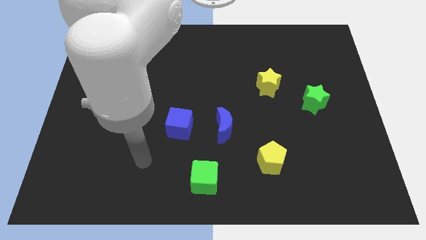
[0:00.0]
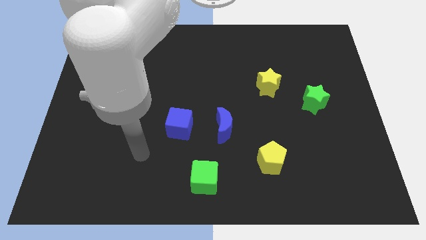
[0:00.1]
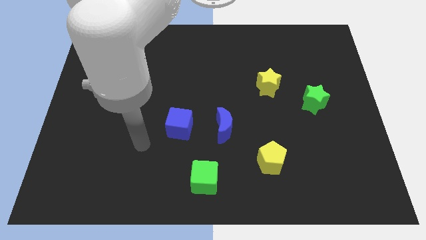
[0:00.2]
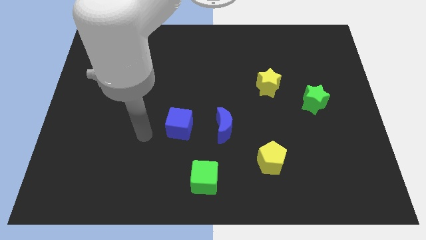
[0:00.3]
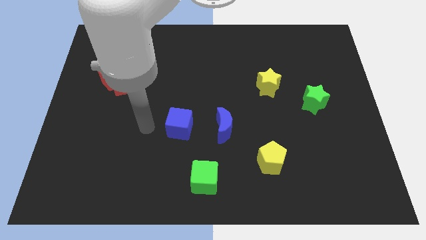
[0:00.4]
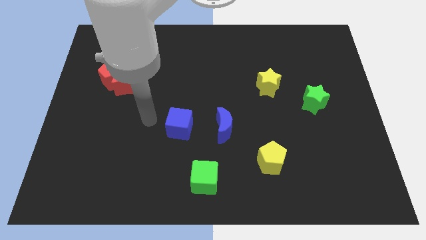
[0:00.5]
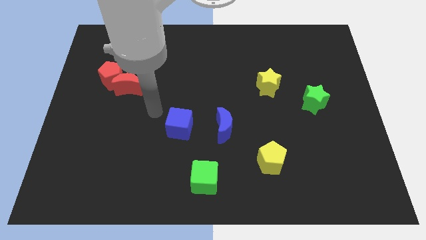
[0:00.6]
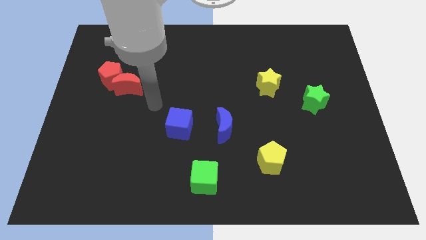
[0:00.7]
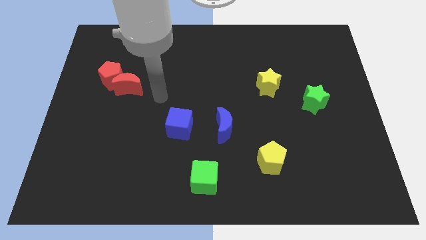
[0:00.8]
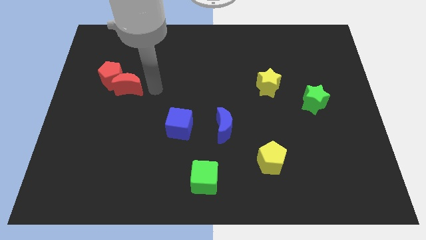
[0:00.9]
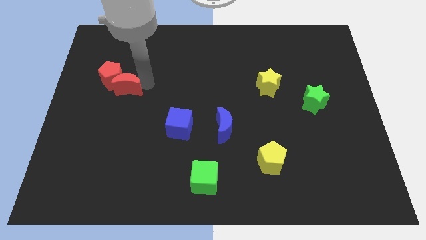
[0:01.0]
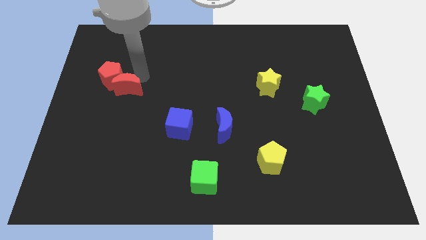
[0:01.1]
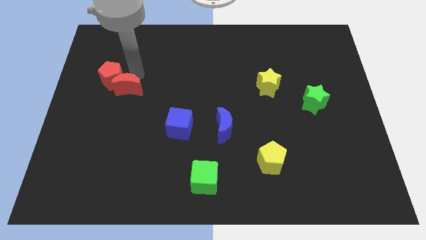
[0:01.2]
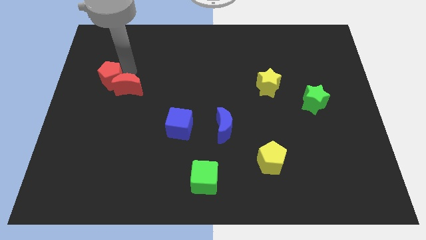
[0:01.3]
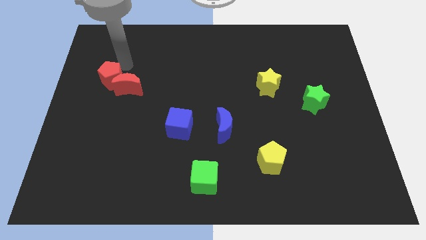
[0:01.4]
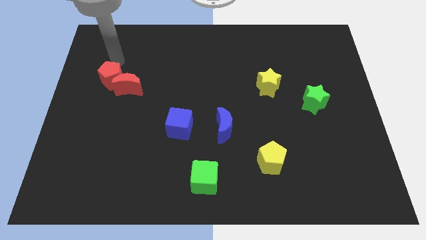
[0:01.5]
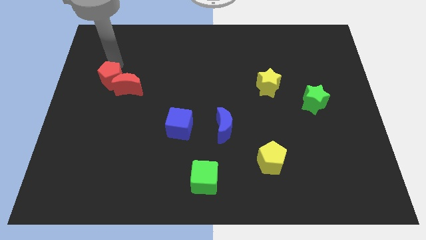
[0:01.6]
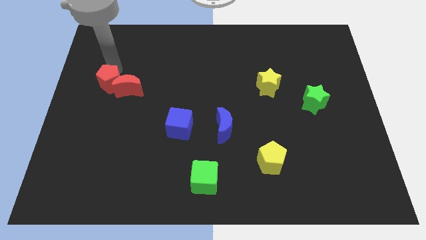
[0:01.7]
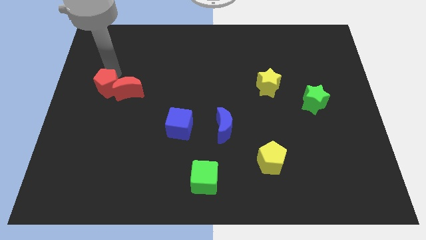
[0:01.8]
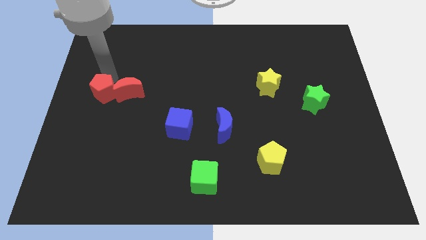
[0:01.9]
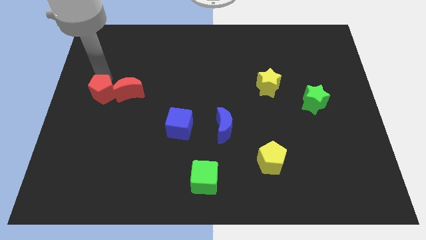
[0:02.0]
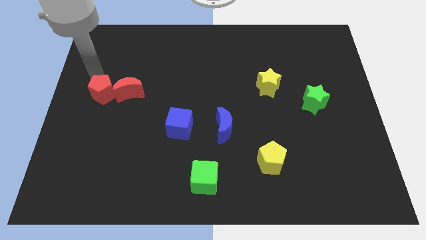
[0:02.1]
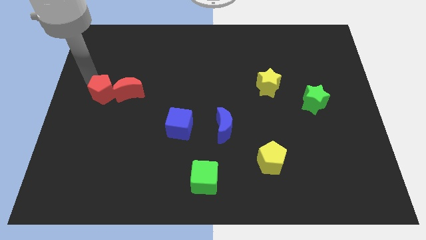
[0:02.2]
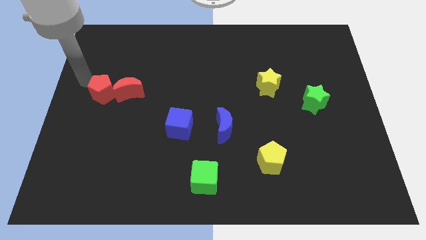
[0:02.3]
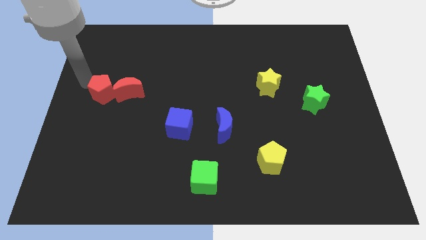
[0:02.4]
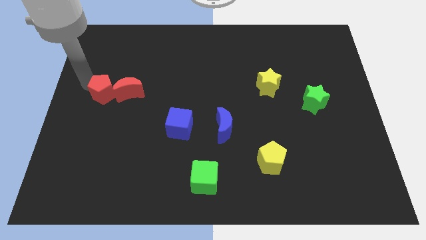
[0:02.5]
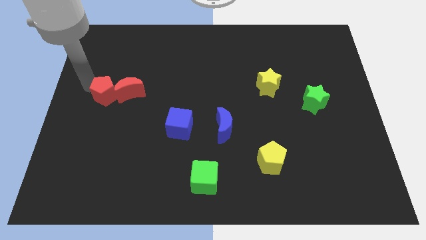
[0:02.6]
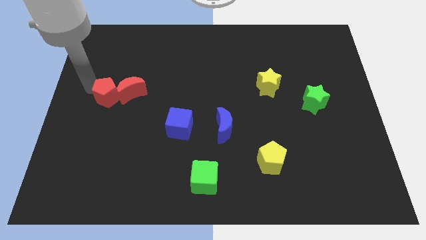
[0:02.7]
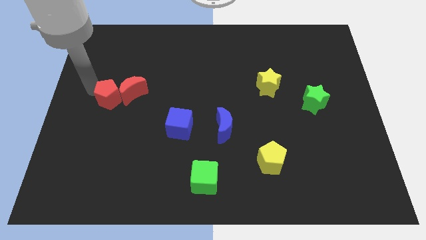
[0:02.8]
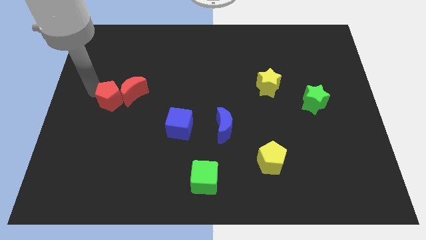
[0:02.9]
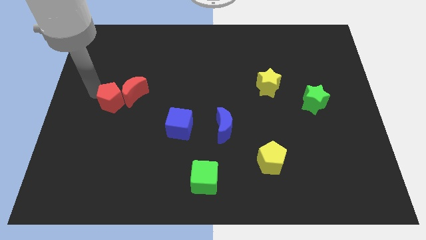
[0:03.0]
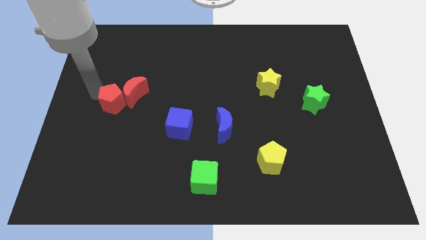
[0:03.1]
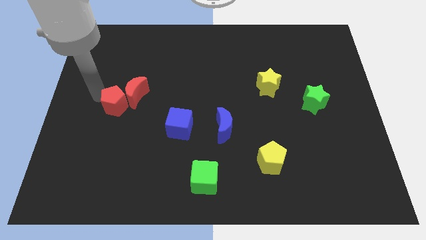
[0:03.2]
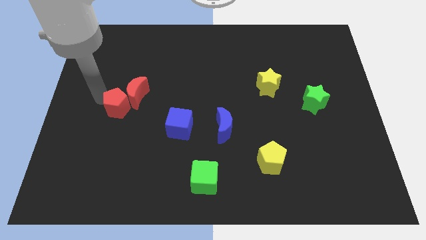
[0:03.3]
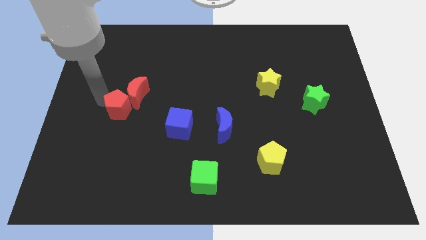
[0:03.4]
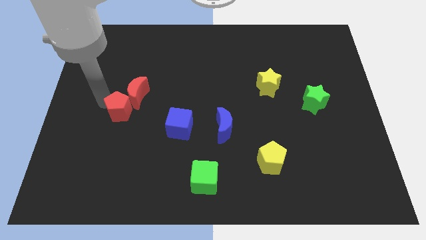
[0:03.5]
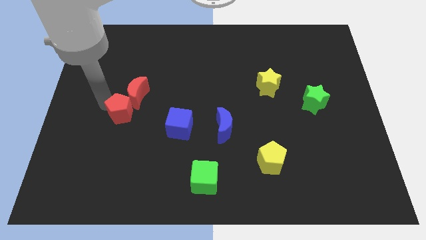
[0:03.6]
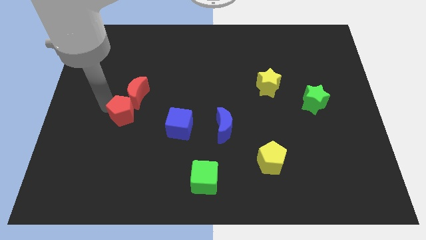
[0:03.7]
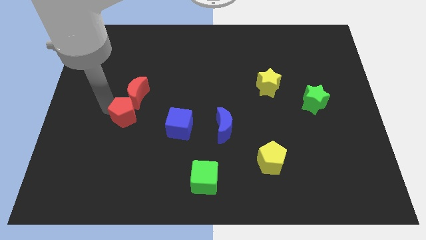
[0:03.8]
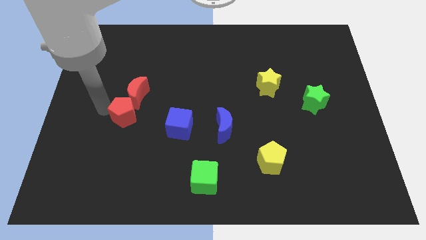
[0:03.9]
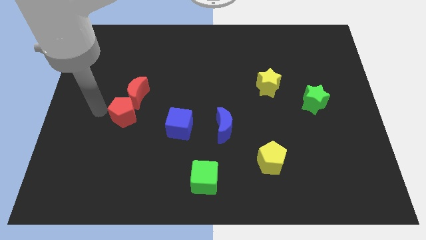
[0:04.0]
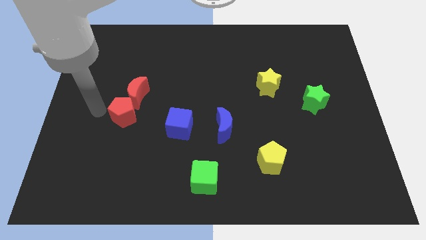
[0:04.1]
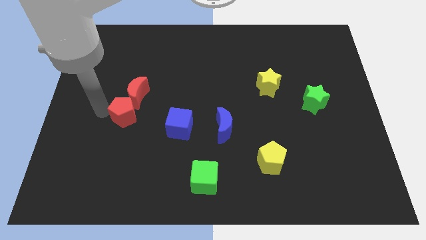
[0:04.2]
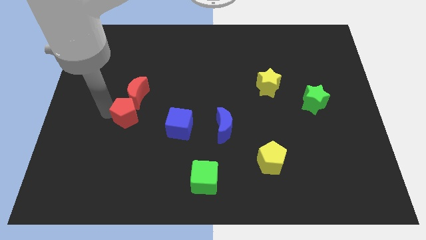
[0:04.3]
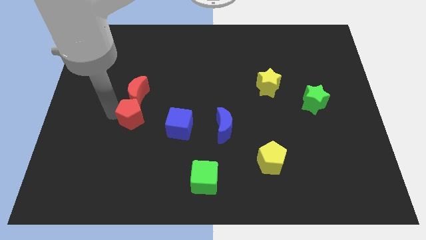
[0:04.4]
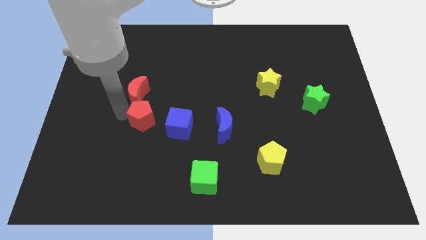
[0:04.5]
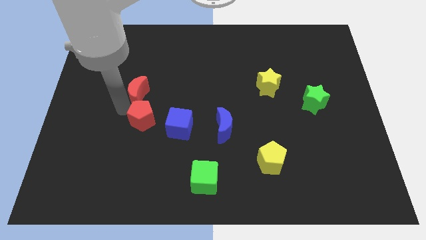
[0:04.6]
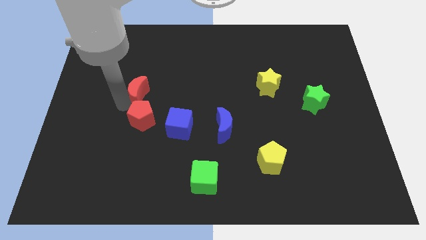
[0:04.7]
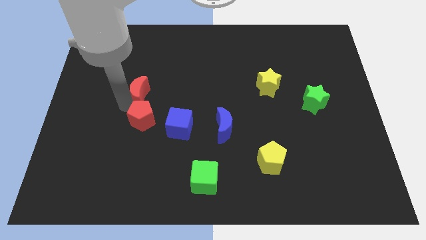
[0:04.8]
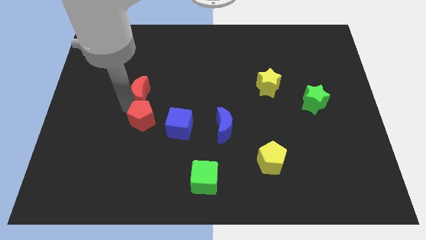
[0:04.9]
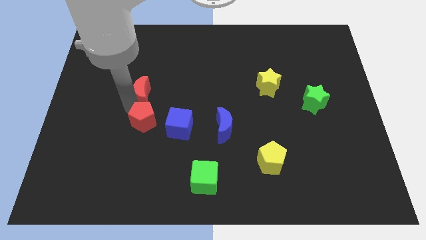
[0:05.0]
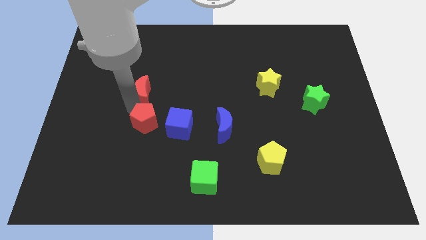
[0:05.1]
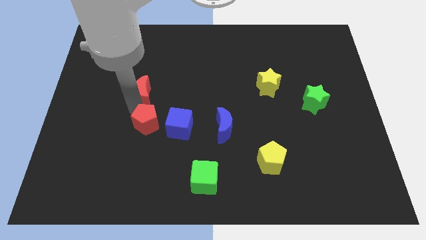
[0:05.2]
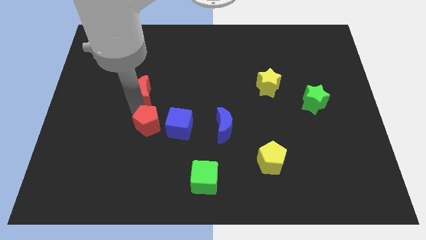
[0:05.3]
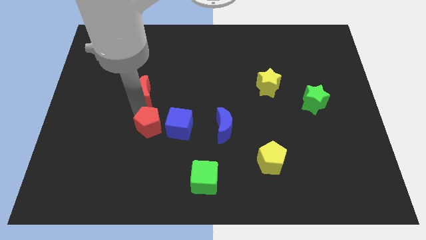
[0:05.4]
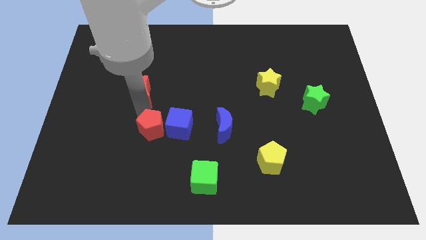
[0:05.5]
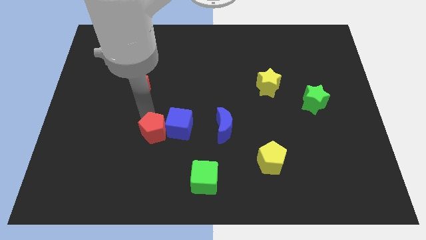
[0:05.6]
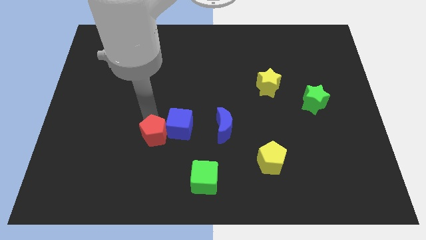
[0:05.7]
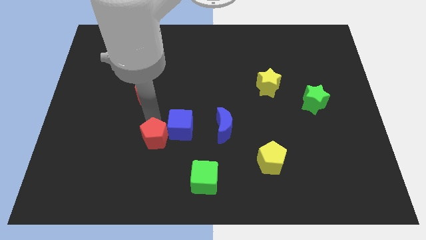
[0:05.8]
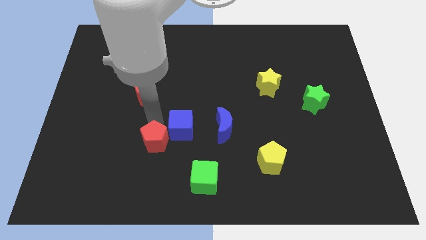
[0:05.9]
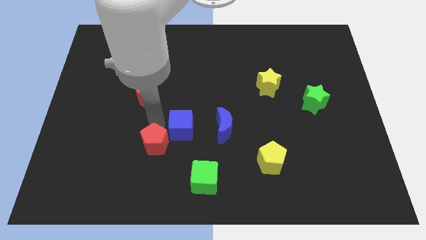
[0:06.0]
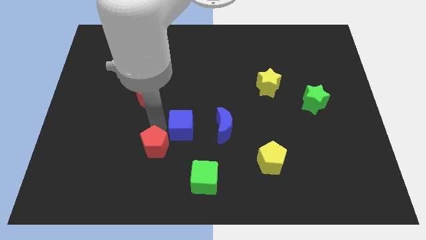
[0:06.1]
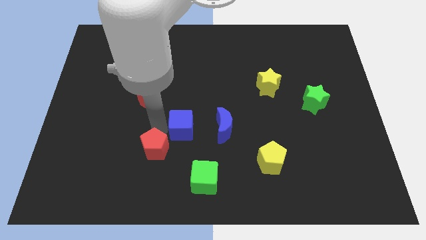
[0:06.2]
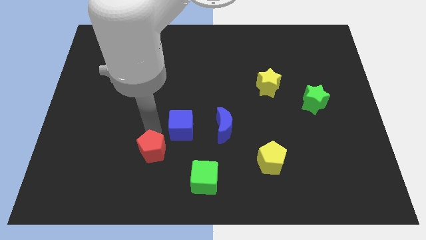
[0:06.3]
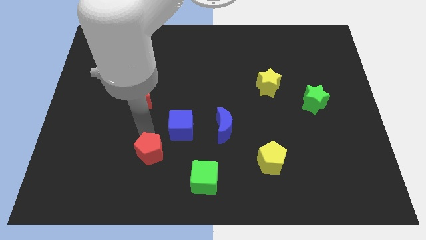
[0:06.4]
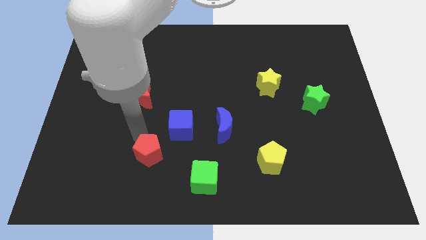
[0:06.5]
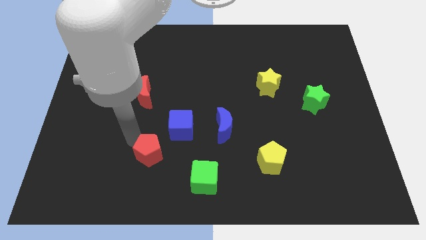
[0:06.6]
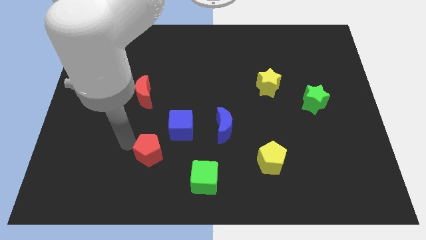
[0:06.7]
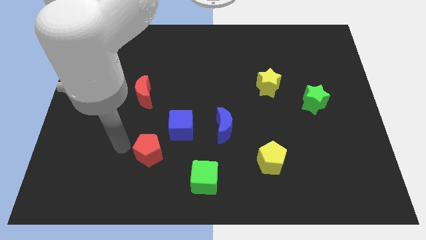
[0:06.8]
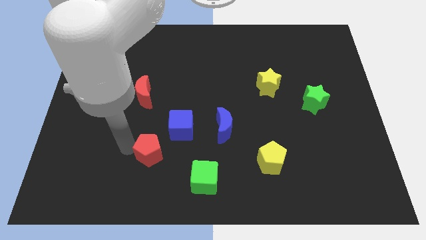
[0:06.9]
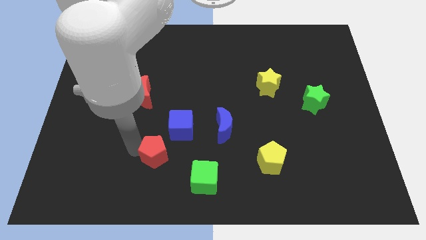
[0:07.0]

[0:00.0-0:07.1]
move the red pentagon to the top left of the green cube
